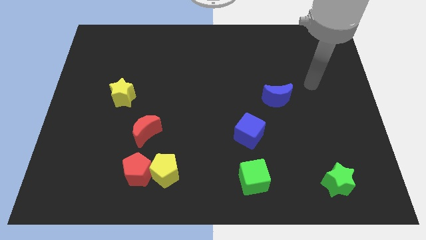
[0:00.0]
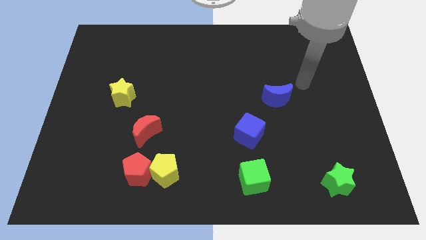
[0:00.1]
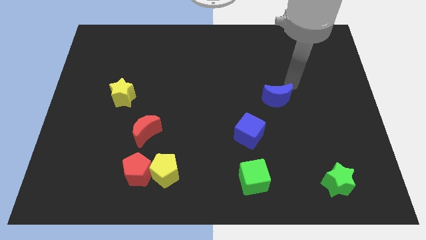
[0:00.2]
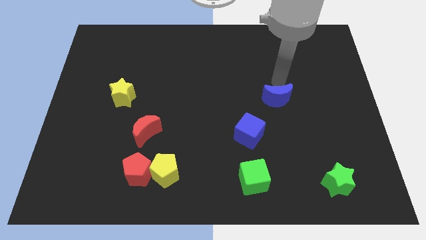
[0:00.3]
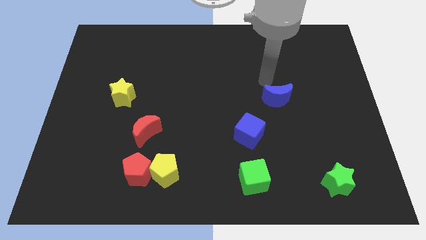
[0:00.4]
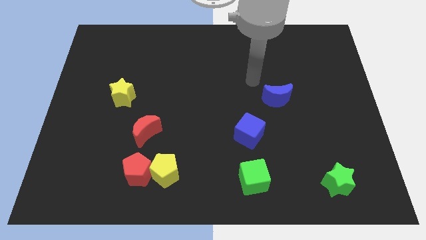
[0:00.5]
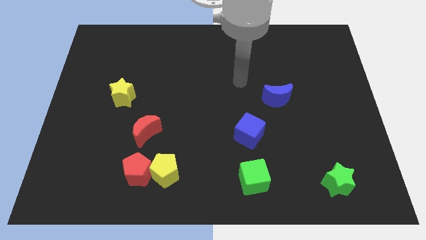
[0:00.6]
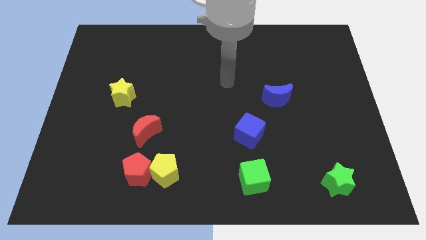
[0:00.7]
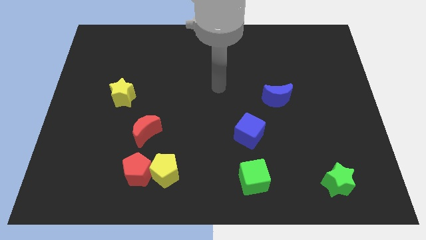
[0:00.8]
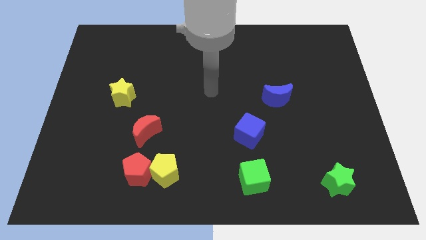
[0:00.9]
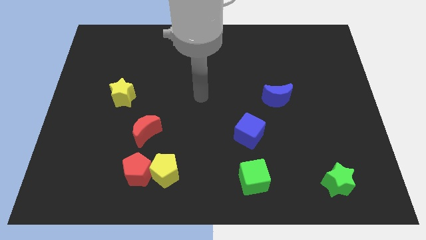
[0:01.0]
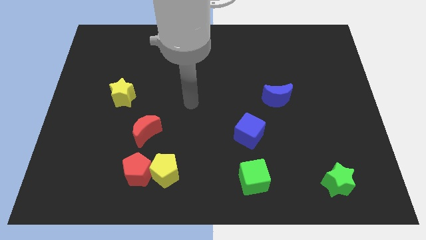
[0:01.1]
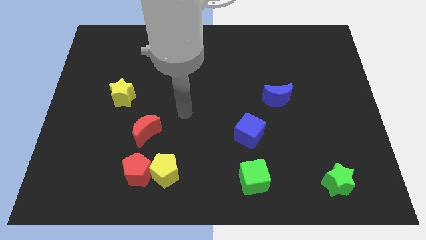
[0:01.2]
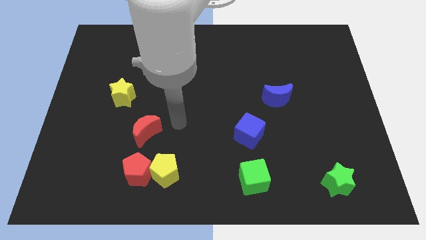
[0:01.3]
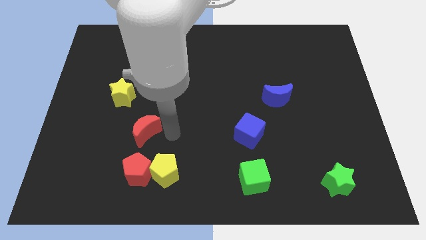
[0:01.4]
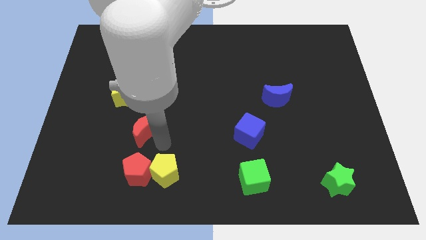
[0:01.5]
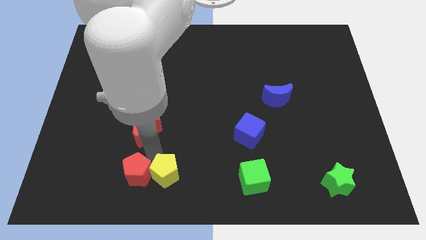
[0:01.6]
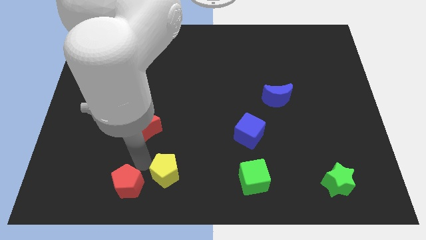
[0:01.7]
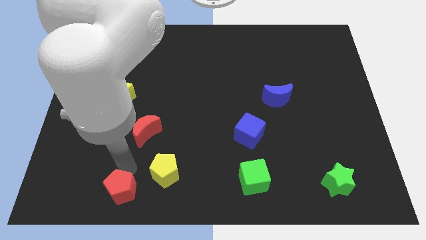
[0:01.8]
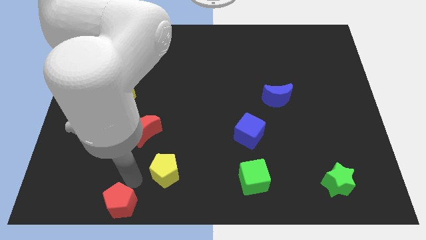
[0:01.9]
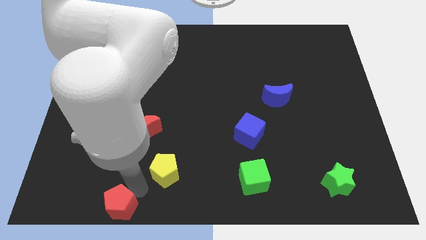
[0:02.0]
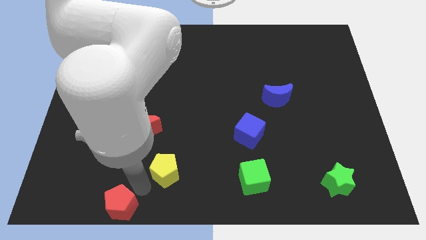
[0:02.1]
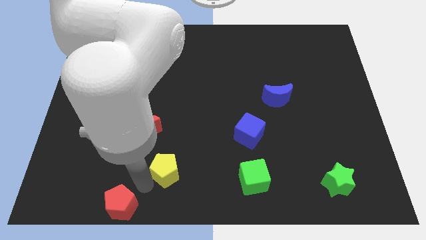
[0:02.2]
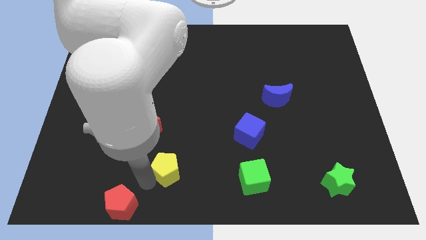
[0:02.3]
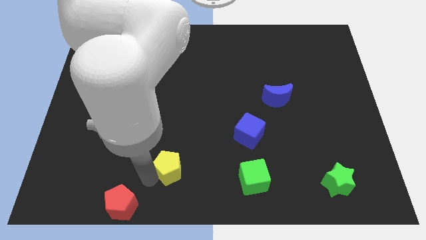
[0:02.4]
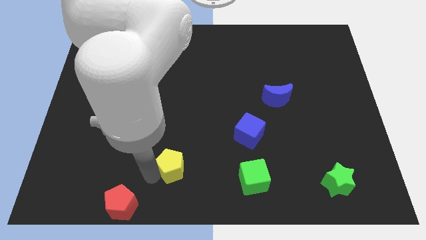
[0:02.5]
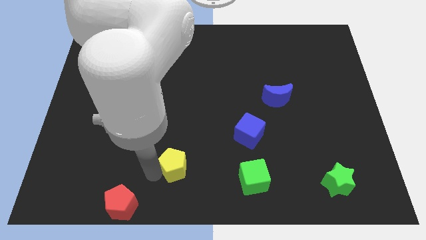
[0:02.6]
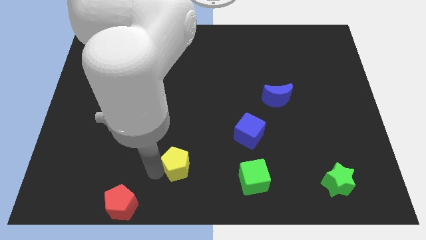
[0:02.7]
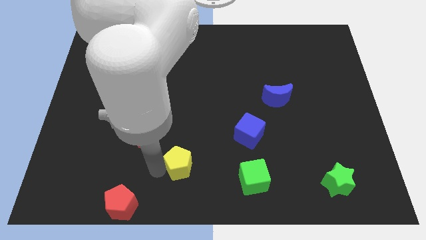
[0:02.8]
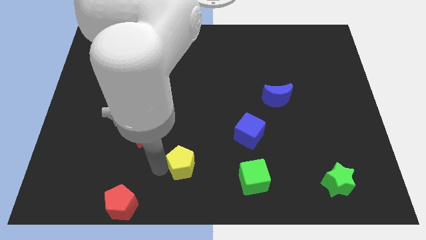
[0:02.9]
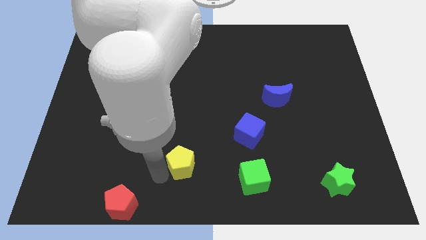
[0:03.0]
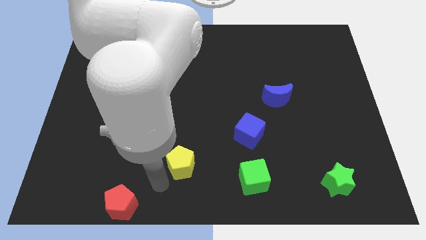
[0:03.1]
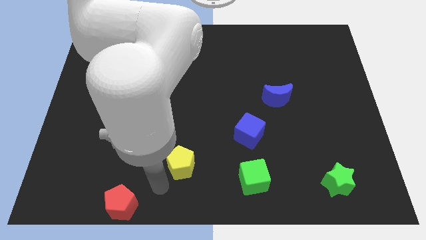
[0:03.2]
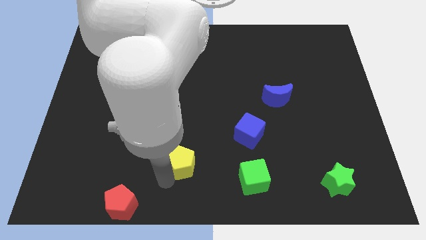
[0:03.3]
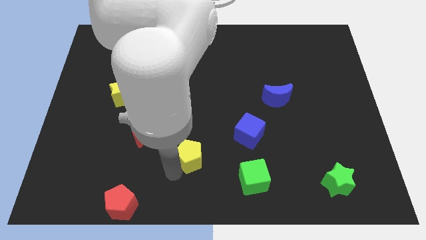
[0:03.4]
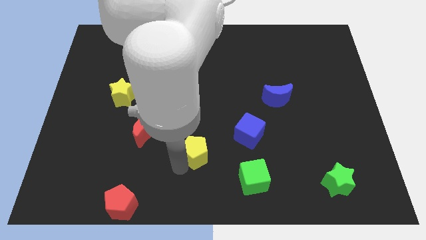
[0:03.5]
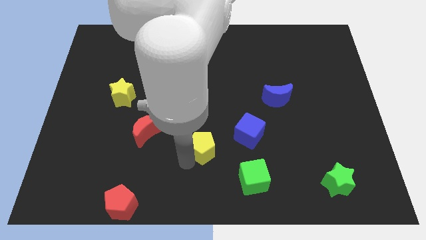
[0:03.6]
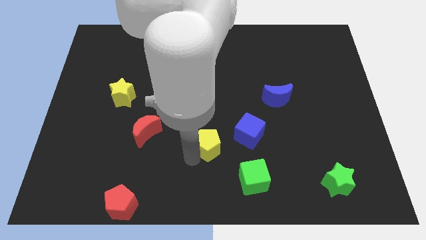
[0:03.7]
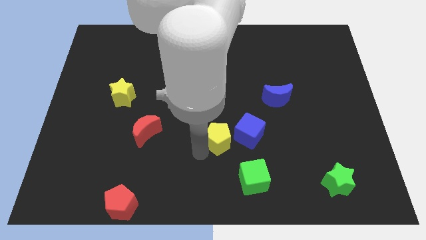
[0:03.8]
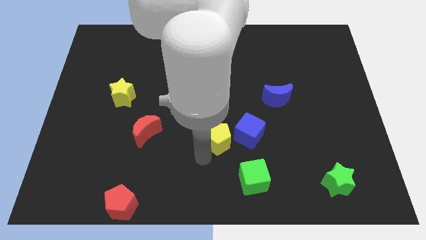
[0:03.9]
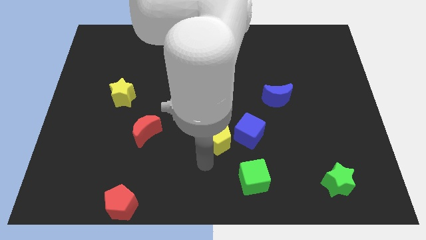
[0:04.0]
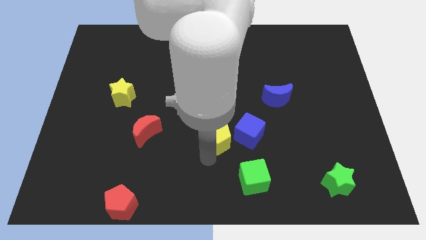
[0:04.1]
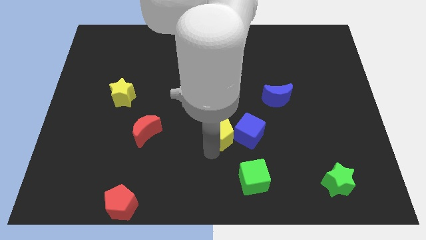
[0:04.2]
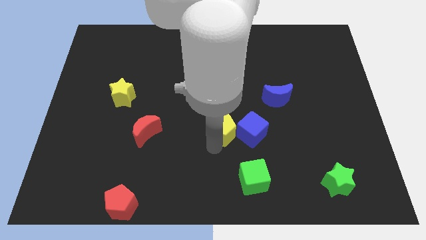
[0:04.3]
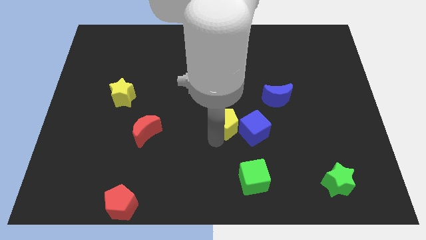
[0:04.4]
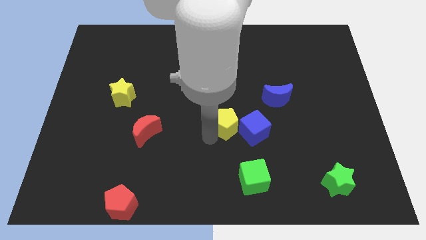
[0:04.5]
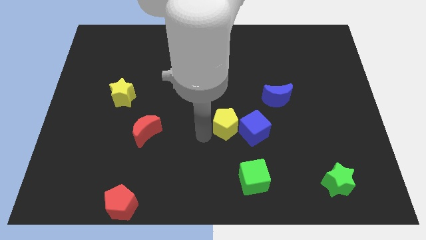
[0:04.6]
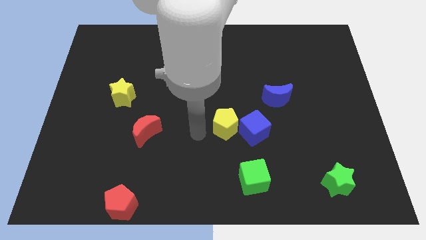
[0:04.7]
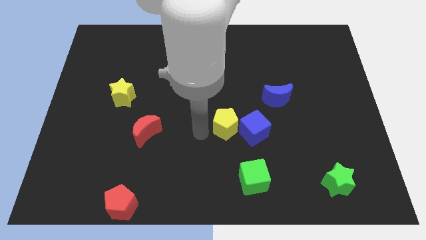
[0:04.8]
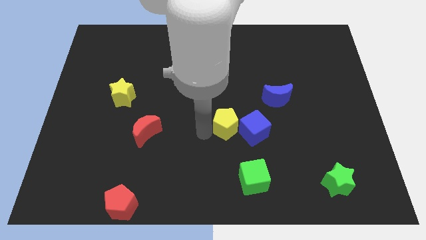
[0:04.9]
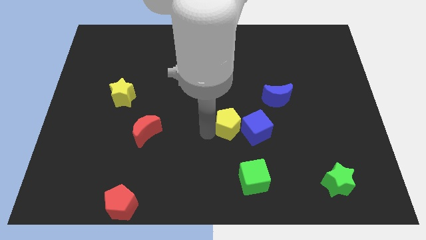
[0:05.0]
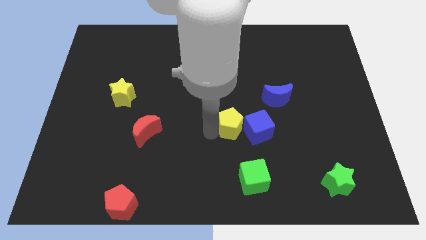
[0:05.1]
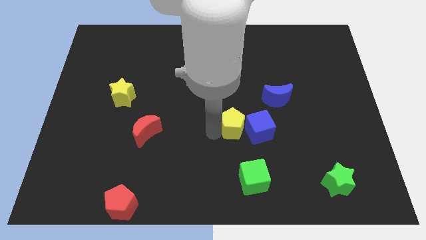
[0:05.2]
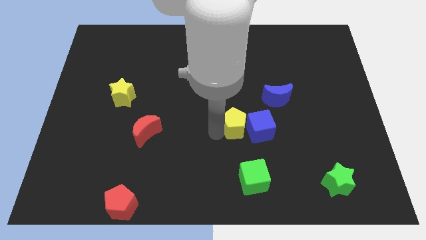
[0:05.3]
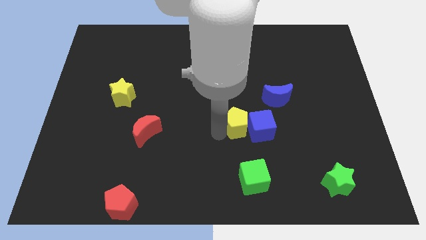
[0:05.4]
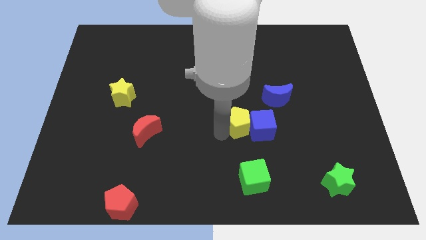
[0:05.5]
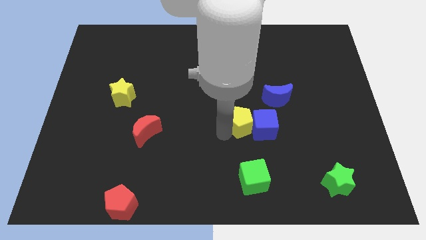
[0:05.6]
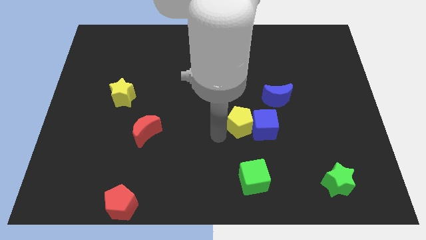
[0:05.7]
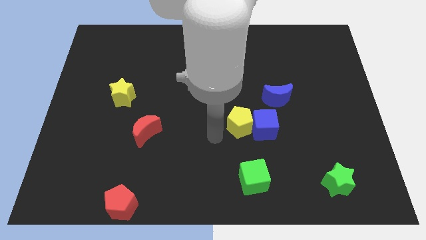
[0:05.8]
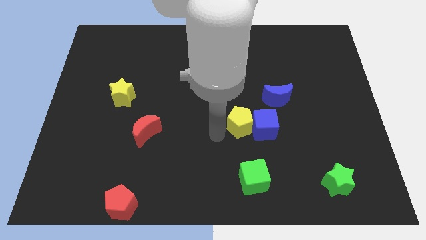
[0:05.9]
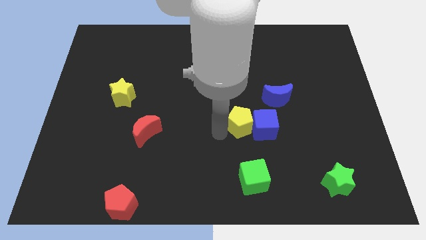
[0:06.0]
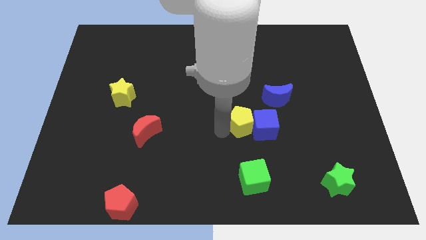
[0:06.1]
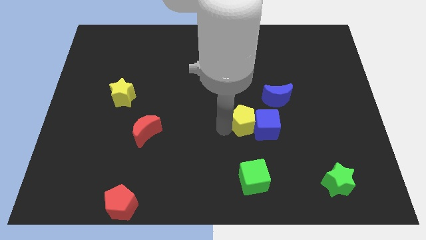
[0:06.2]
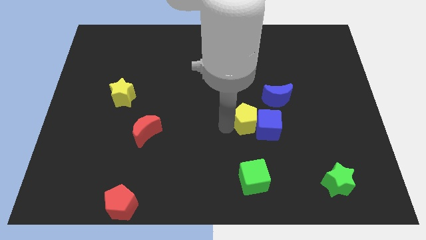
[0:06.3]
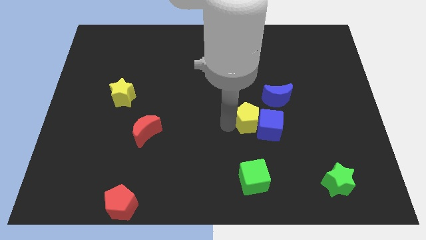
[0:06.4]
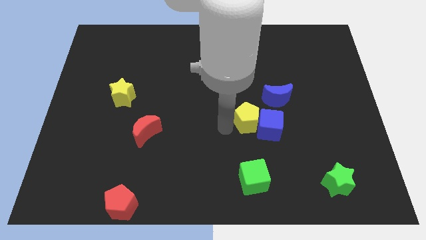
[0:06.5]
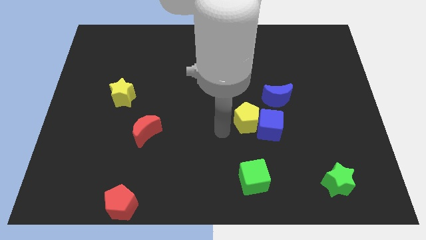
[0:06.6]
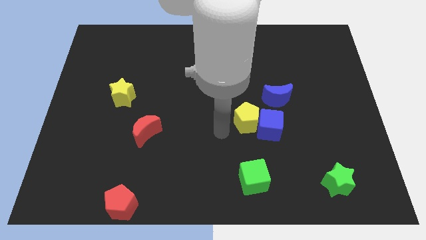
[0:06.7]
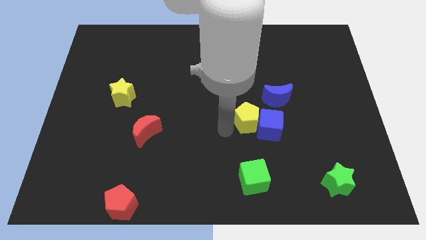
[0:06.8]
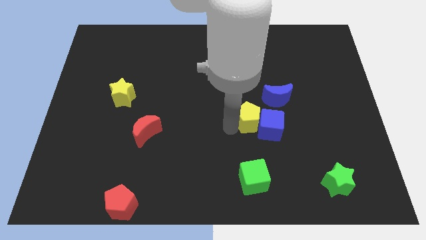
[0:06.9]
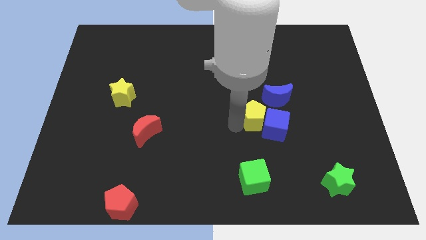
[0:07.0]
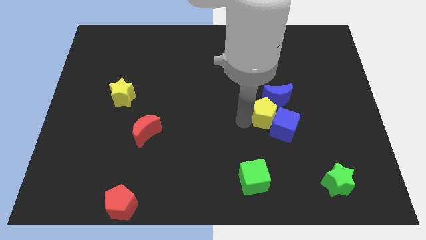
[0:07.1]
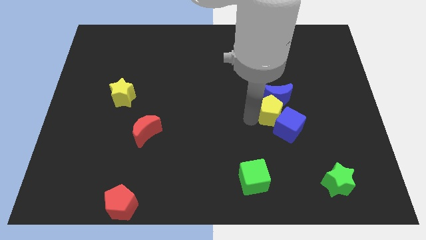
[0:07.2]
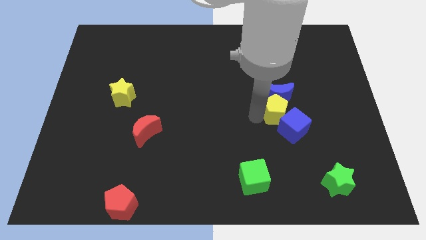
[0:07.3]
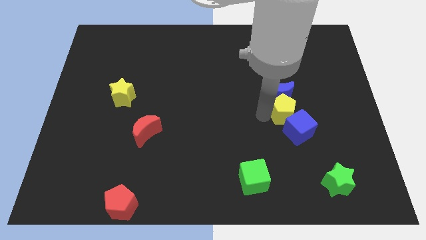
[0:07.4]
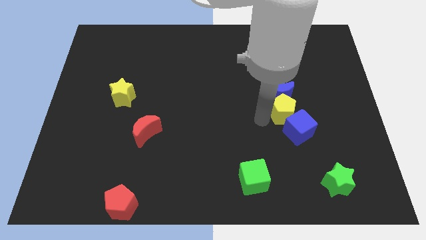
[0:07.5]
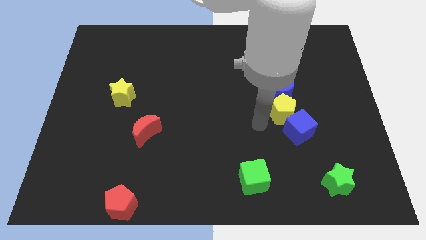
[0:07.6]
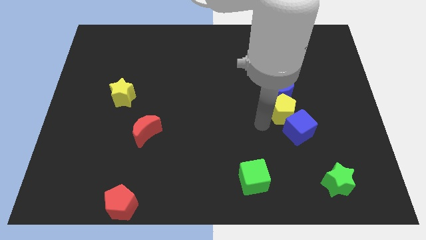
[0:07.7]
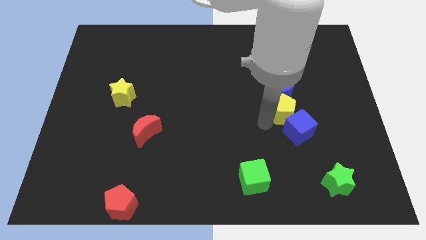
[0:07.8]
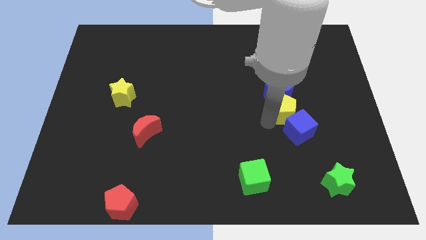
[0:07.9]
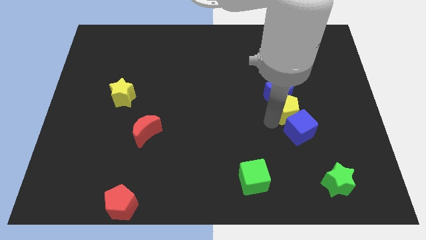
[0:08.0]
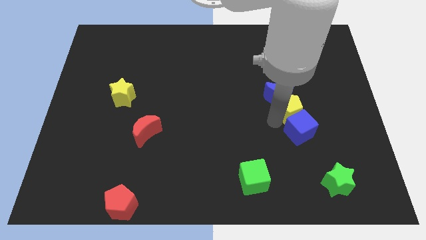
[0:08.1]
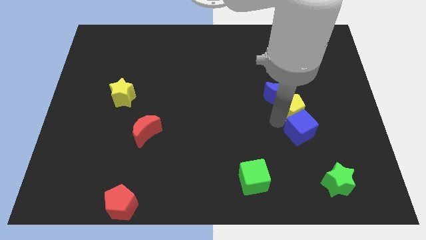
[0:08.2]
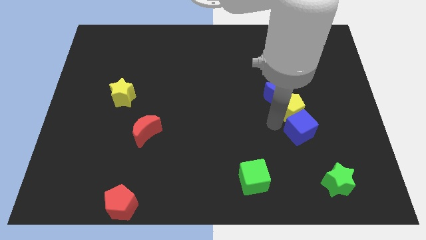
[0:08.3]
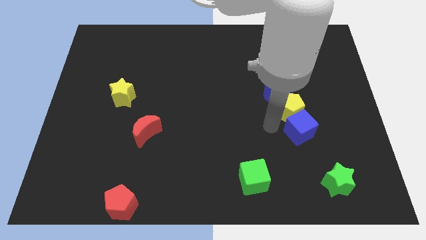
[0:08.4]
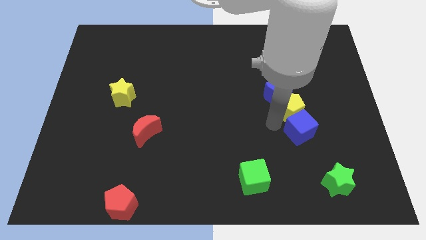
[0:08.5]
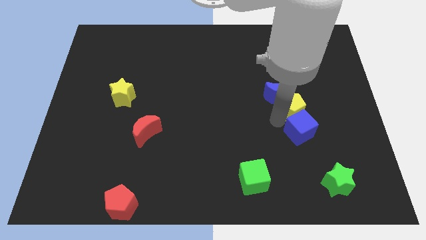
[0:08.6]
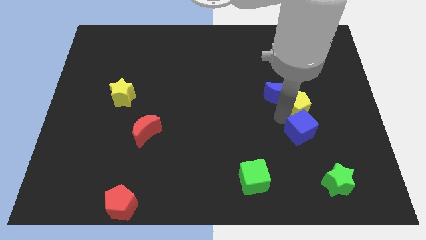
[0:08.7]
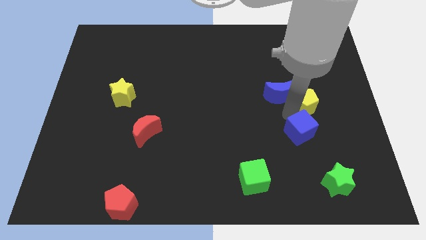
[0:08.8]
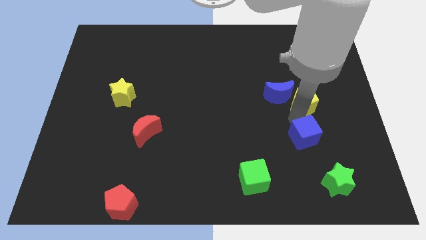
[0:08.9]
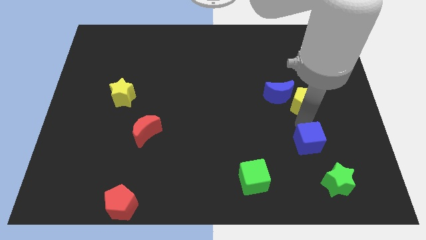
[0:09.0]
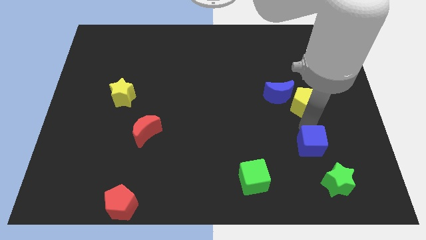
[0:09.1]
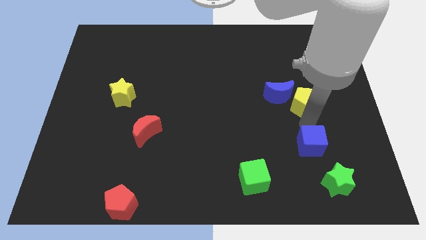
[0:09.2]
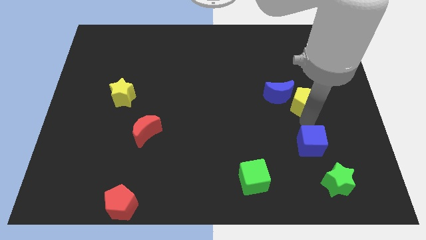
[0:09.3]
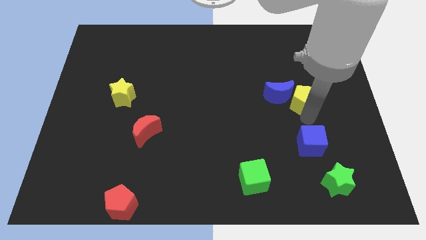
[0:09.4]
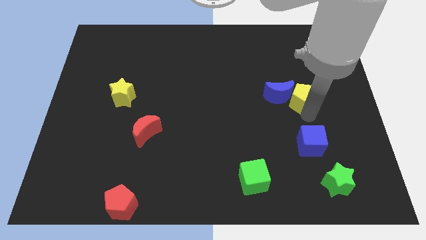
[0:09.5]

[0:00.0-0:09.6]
slide the yellow pentagon to the top right of the blue moon
